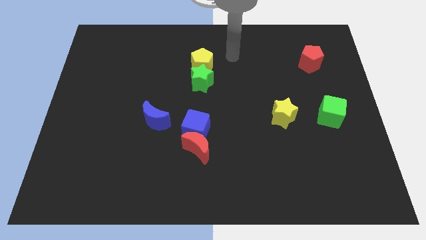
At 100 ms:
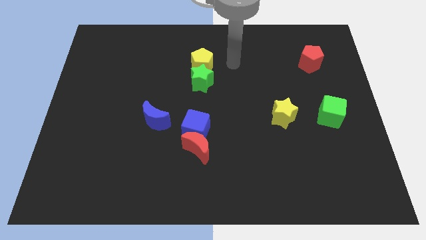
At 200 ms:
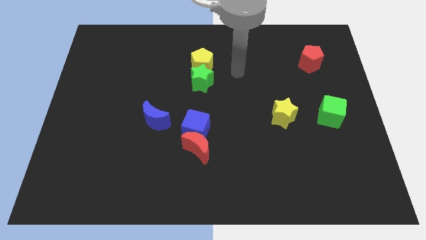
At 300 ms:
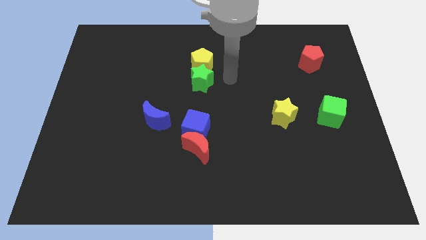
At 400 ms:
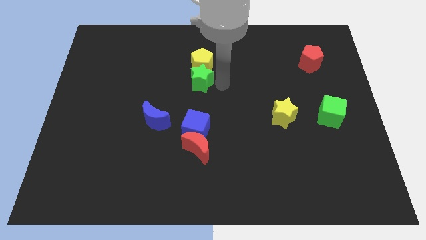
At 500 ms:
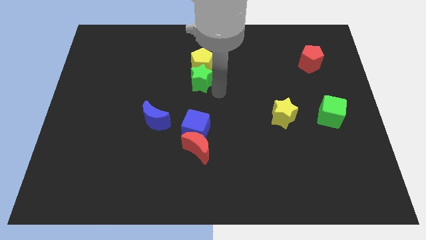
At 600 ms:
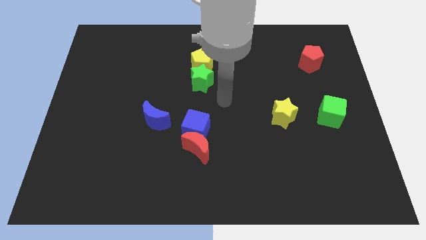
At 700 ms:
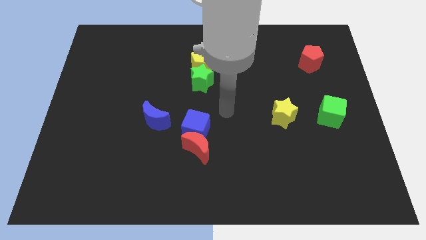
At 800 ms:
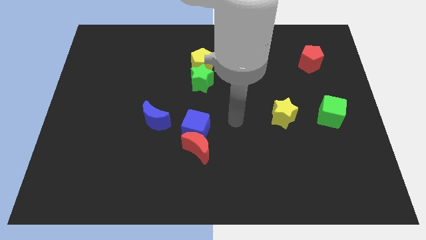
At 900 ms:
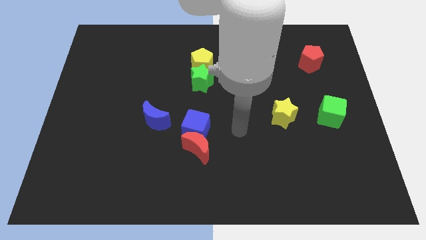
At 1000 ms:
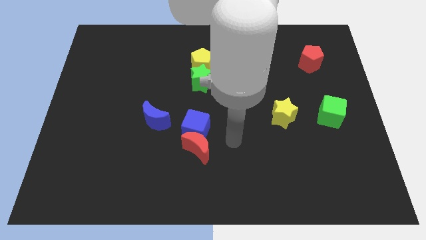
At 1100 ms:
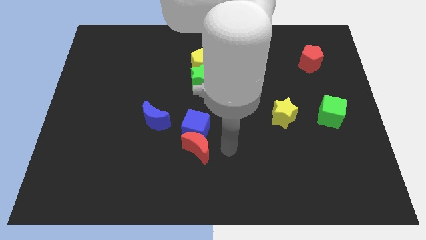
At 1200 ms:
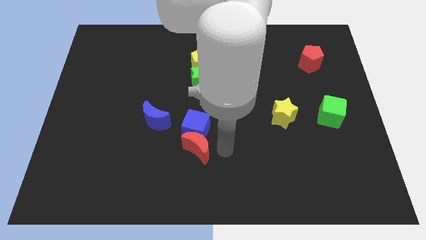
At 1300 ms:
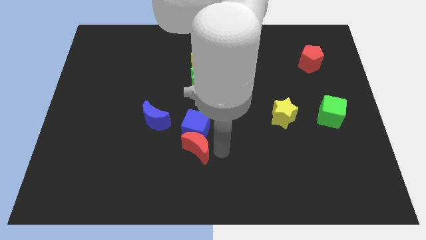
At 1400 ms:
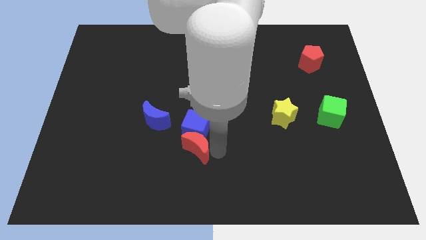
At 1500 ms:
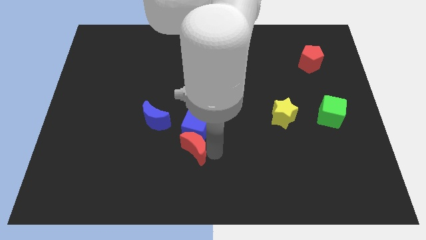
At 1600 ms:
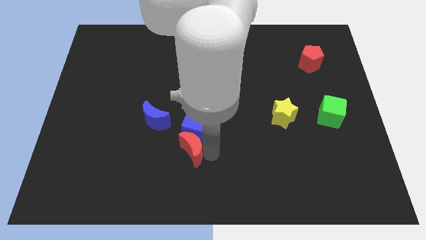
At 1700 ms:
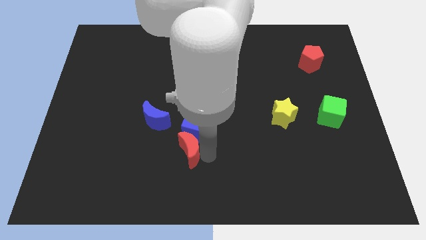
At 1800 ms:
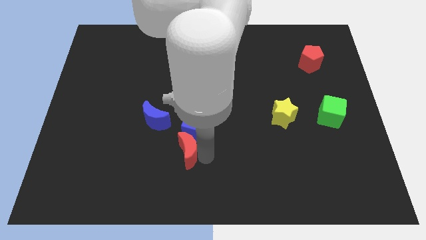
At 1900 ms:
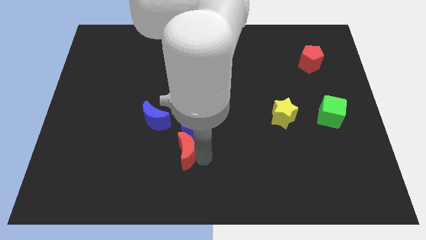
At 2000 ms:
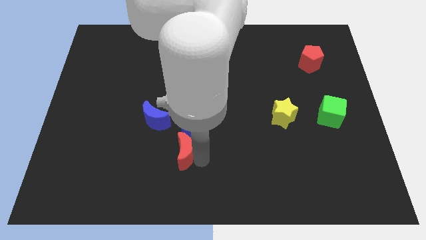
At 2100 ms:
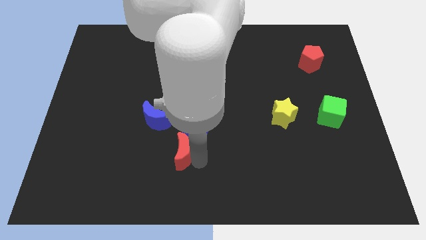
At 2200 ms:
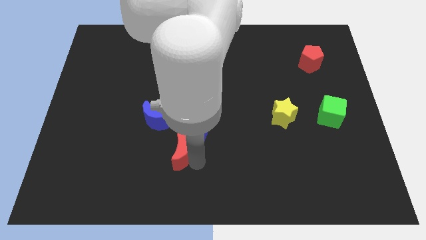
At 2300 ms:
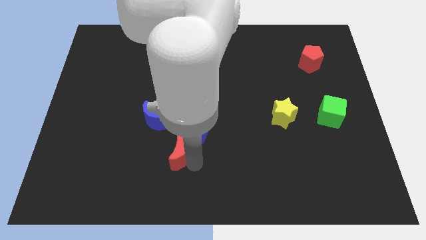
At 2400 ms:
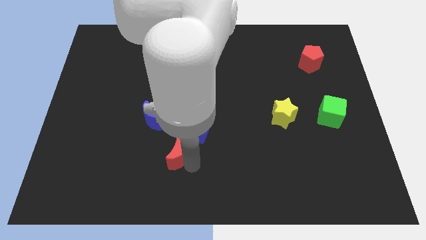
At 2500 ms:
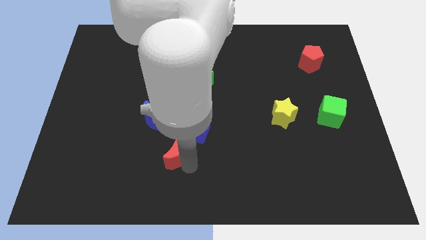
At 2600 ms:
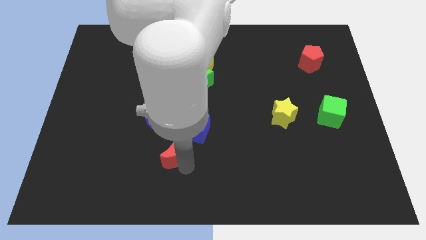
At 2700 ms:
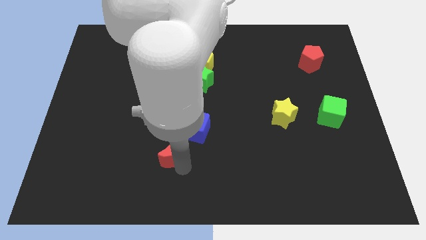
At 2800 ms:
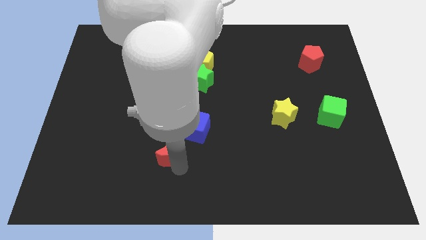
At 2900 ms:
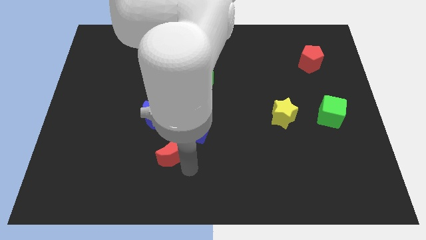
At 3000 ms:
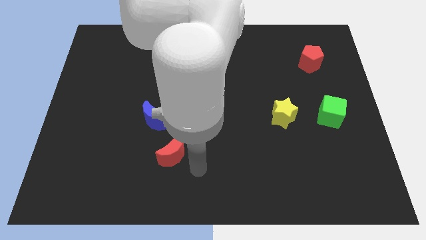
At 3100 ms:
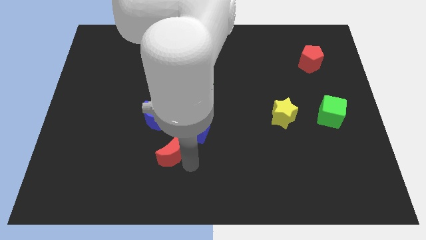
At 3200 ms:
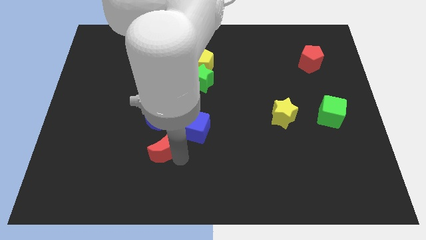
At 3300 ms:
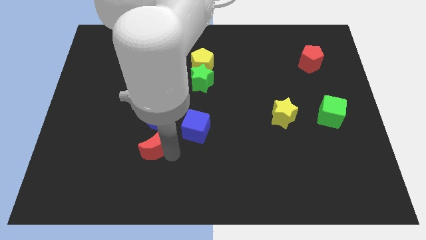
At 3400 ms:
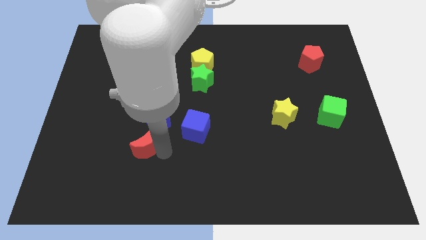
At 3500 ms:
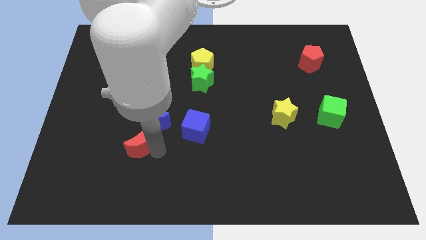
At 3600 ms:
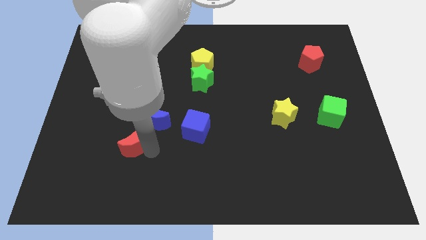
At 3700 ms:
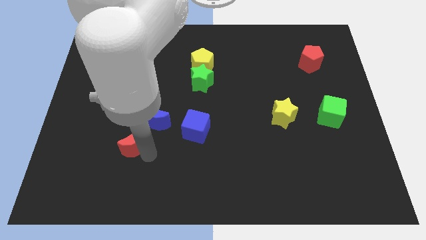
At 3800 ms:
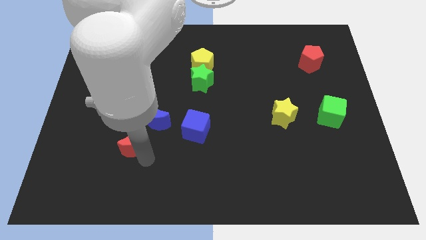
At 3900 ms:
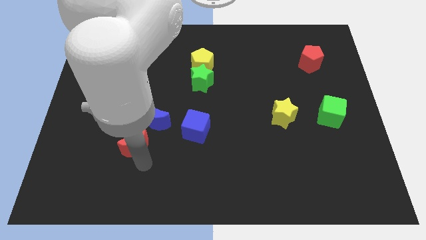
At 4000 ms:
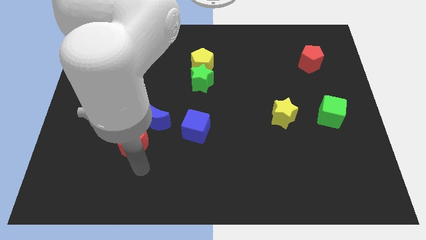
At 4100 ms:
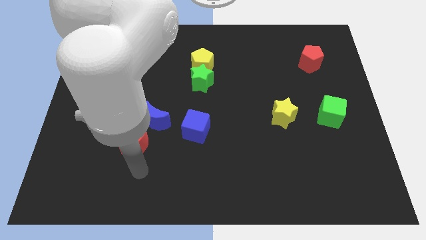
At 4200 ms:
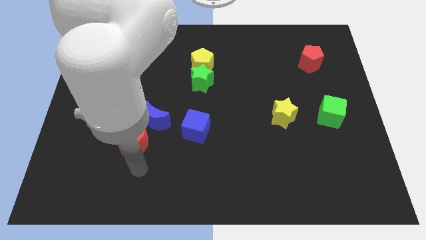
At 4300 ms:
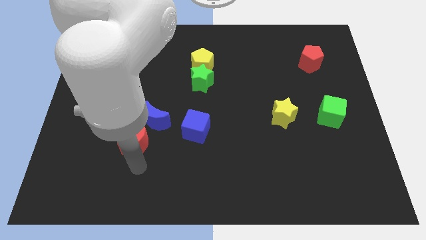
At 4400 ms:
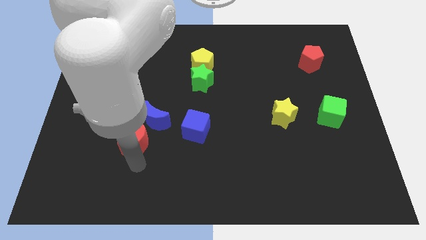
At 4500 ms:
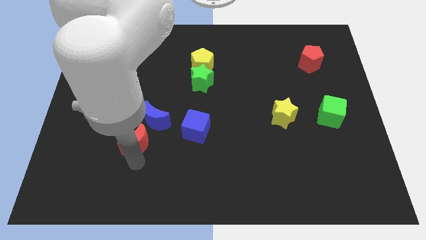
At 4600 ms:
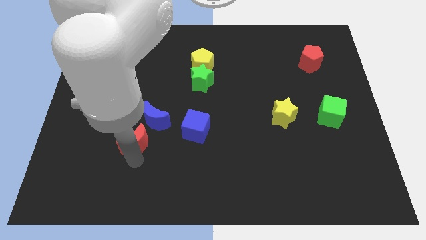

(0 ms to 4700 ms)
slide the red moon a little up and then to the left

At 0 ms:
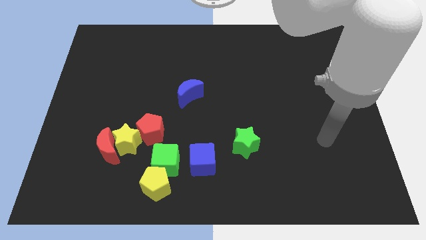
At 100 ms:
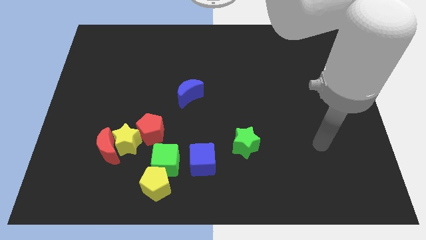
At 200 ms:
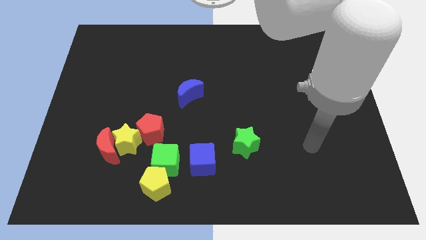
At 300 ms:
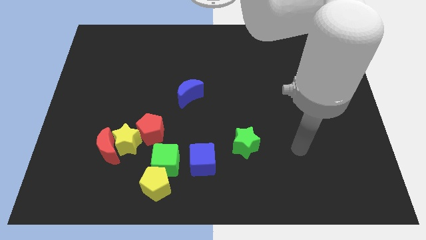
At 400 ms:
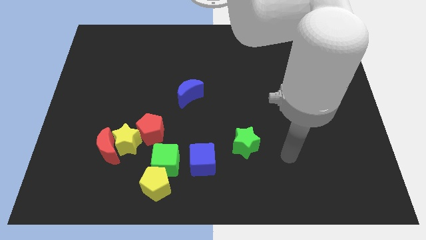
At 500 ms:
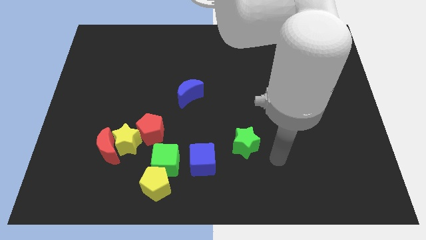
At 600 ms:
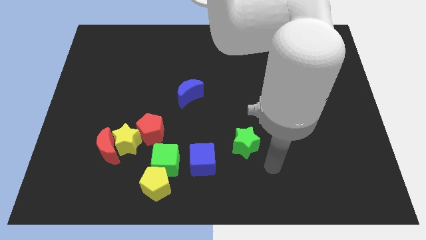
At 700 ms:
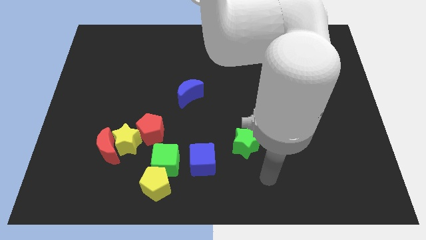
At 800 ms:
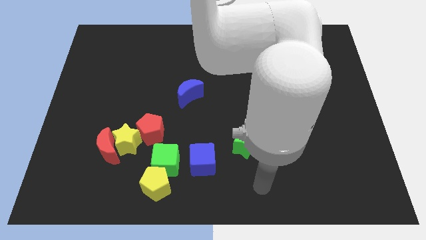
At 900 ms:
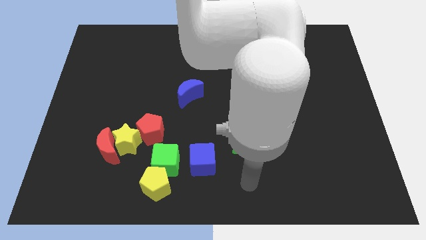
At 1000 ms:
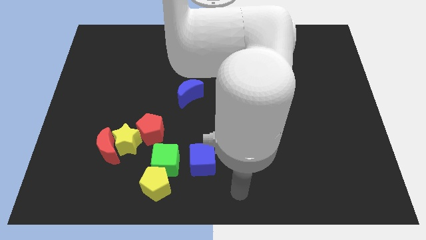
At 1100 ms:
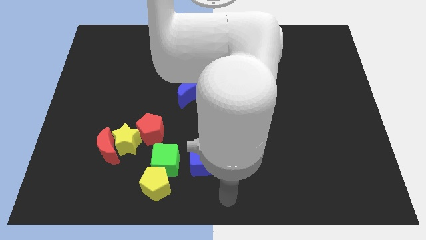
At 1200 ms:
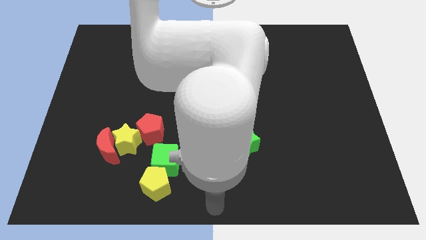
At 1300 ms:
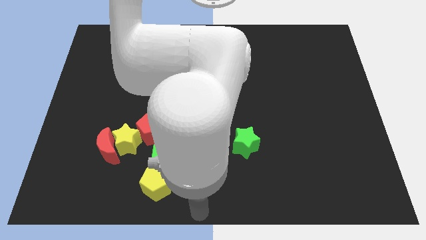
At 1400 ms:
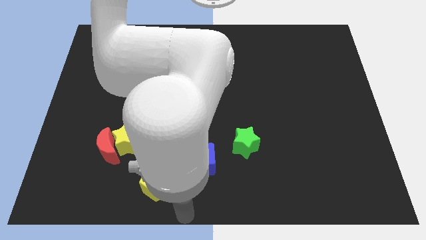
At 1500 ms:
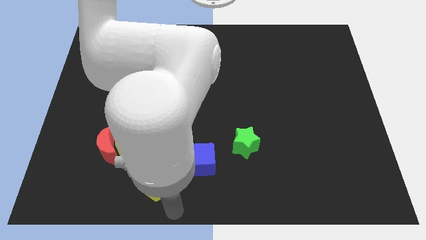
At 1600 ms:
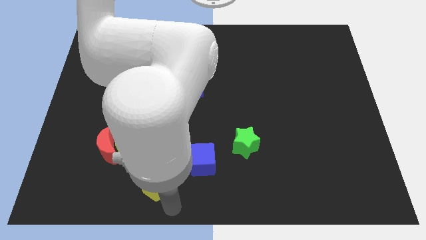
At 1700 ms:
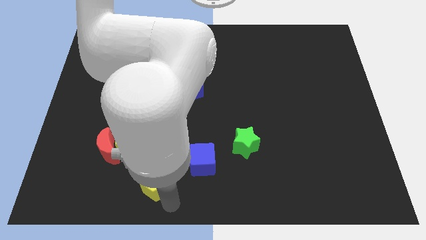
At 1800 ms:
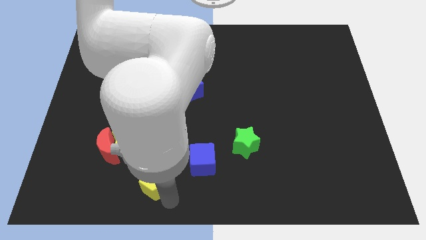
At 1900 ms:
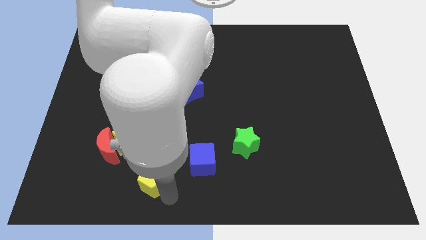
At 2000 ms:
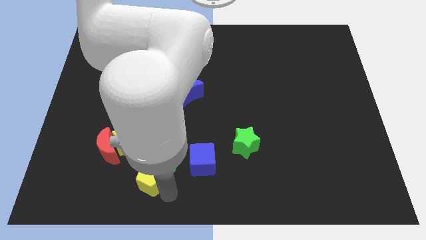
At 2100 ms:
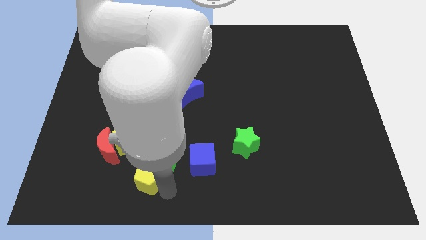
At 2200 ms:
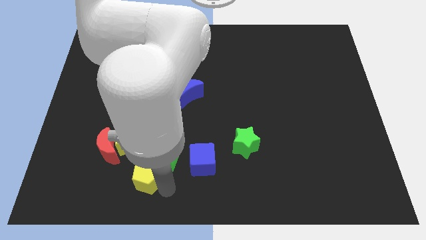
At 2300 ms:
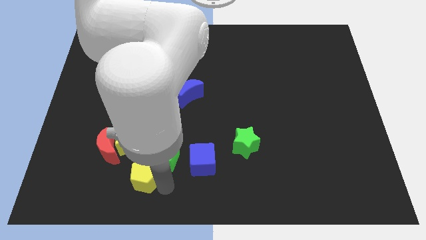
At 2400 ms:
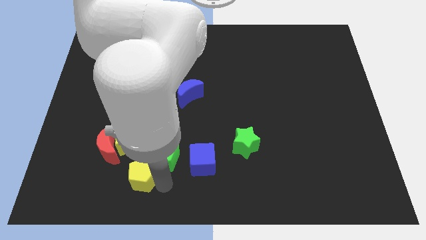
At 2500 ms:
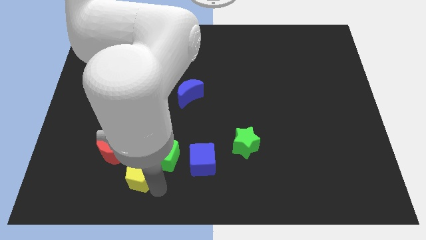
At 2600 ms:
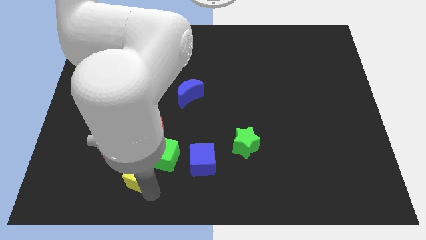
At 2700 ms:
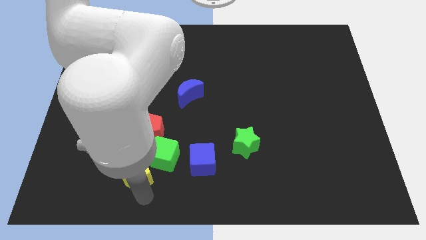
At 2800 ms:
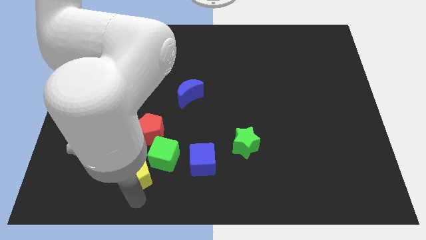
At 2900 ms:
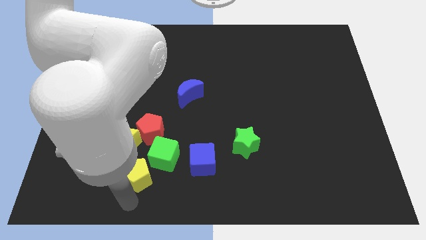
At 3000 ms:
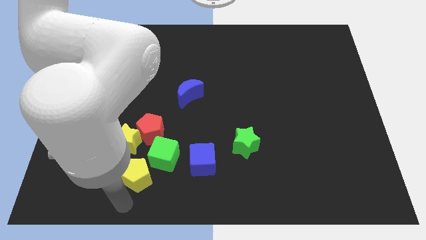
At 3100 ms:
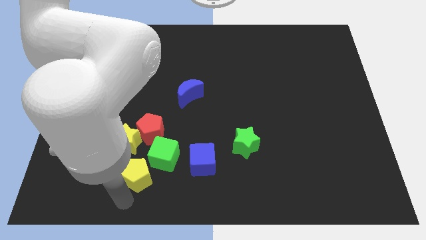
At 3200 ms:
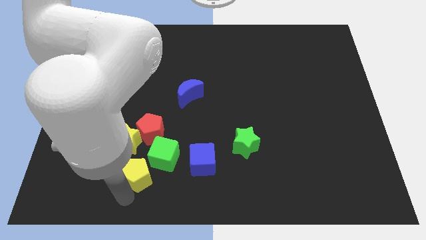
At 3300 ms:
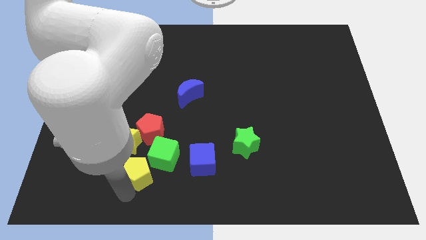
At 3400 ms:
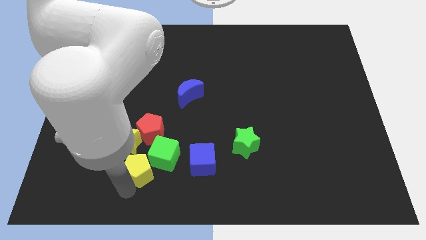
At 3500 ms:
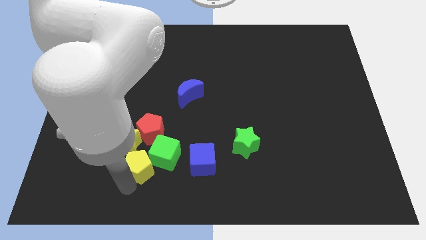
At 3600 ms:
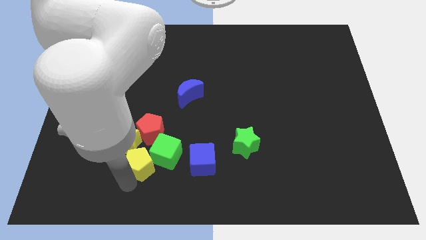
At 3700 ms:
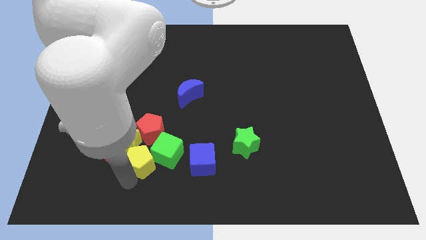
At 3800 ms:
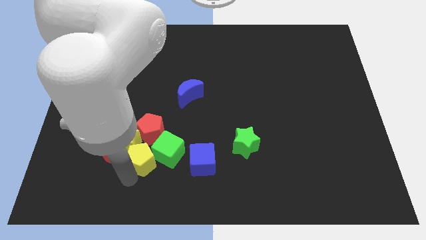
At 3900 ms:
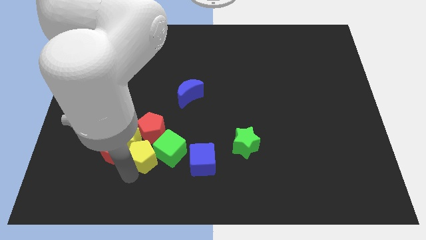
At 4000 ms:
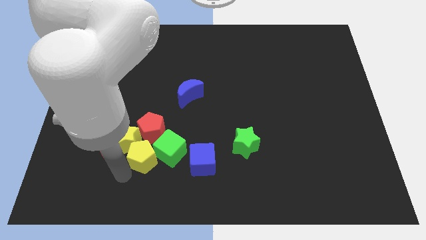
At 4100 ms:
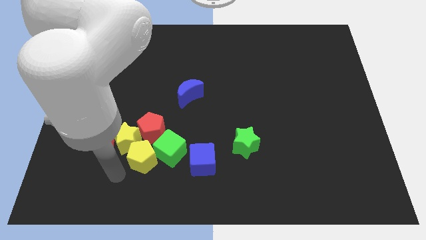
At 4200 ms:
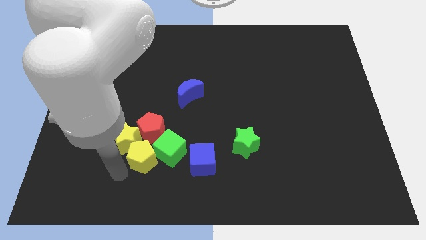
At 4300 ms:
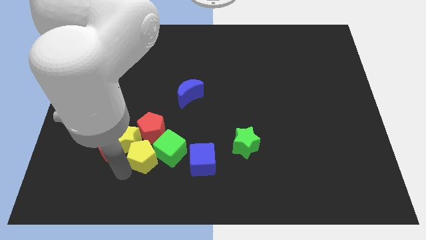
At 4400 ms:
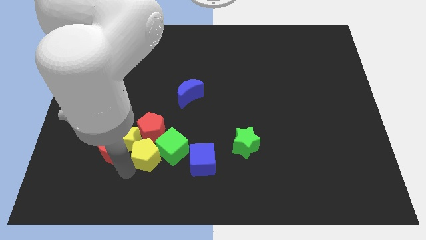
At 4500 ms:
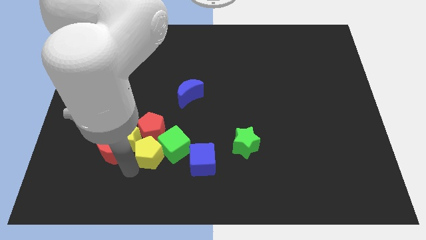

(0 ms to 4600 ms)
move the yellow pentagon up a little
